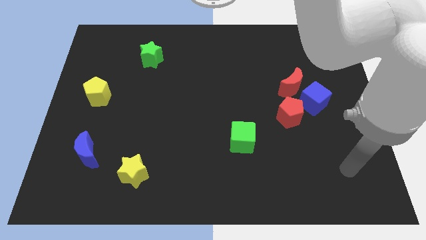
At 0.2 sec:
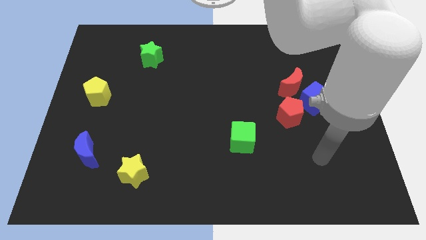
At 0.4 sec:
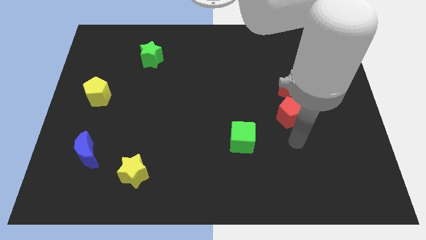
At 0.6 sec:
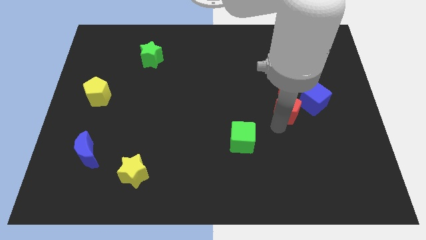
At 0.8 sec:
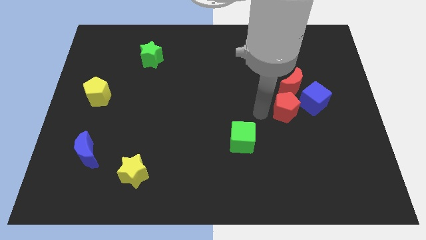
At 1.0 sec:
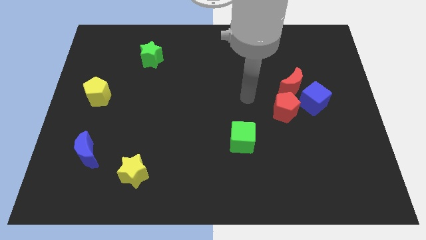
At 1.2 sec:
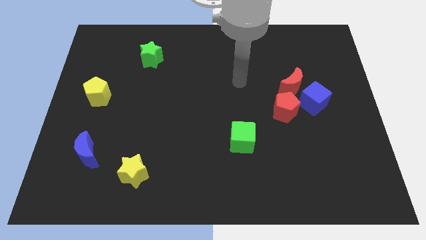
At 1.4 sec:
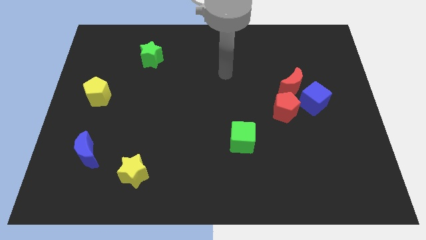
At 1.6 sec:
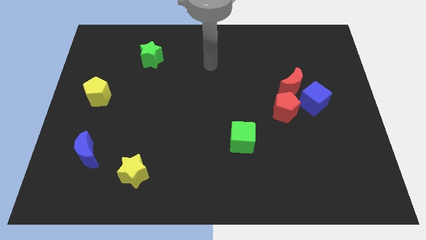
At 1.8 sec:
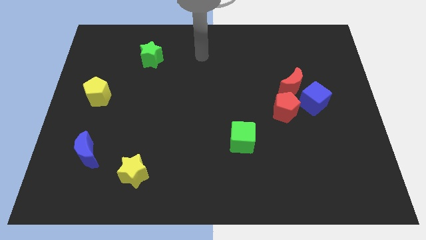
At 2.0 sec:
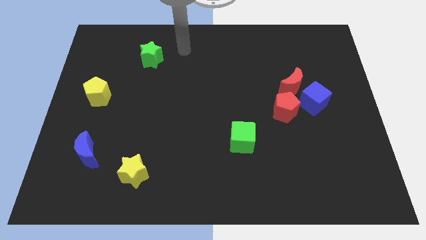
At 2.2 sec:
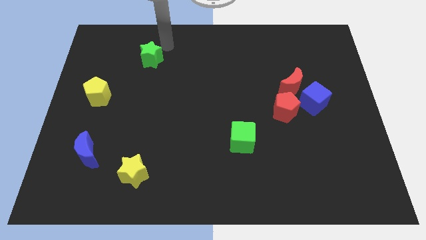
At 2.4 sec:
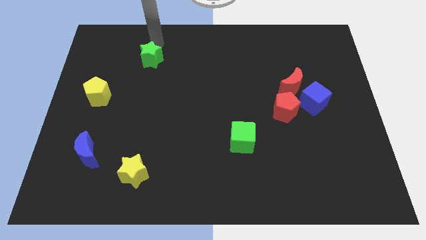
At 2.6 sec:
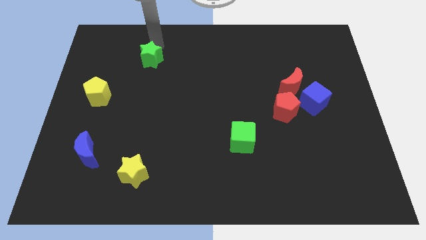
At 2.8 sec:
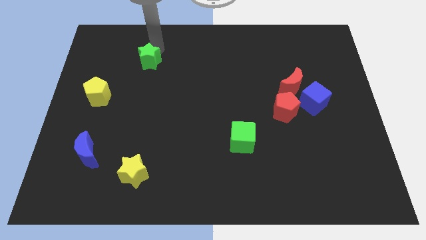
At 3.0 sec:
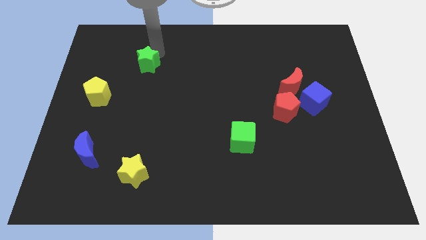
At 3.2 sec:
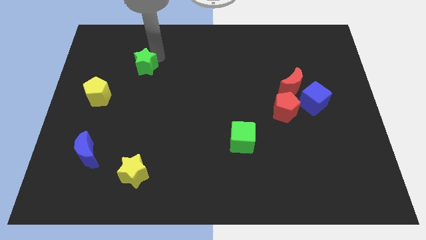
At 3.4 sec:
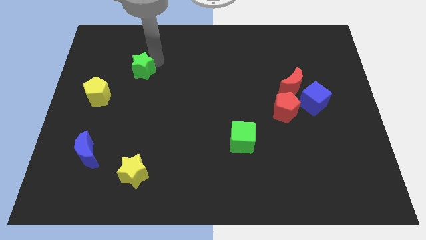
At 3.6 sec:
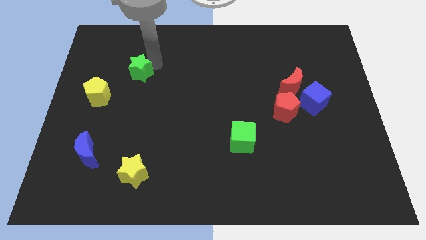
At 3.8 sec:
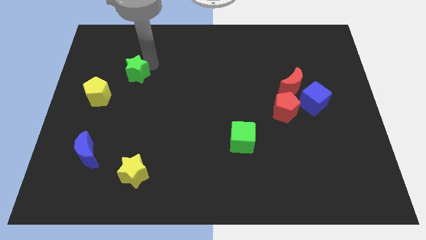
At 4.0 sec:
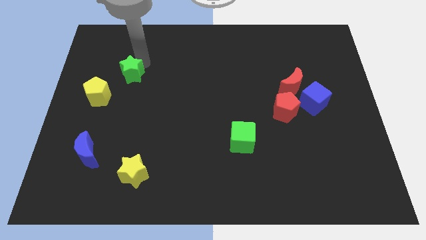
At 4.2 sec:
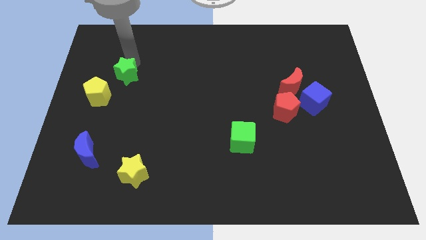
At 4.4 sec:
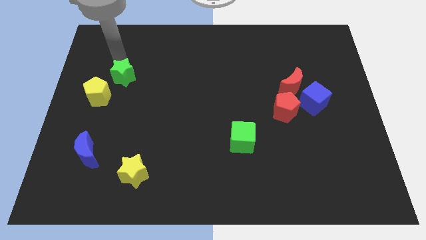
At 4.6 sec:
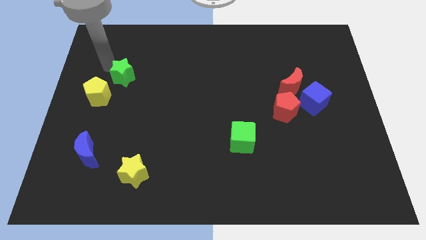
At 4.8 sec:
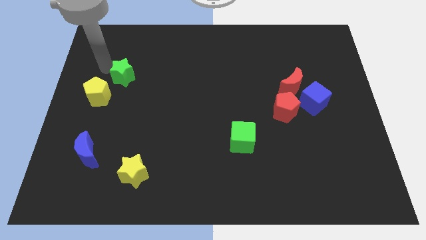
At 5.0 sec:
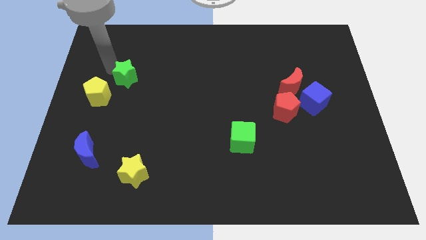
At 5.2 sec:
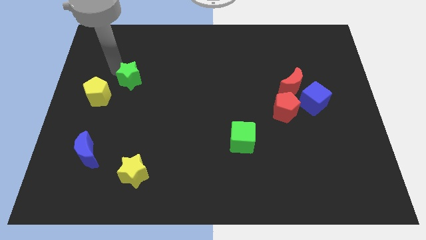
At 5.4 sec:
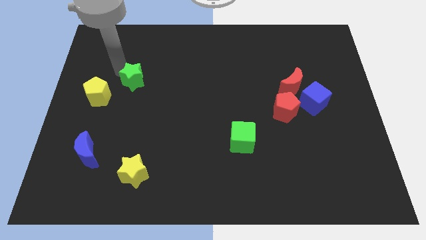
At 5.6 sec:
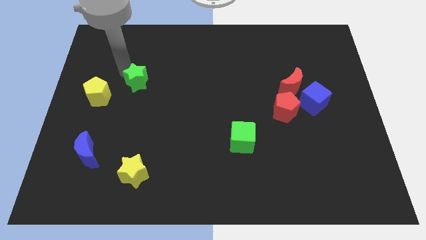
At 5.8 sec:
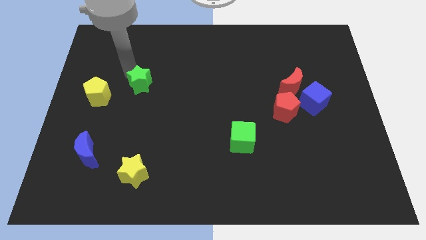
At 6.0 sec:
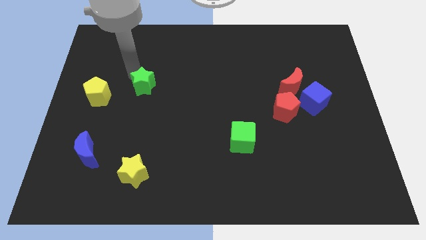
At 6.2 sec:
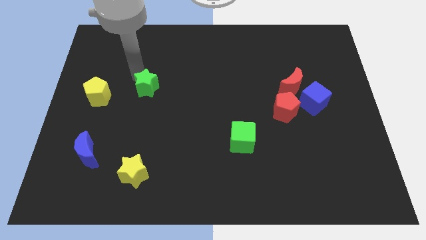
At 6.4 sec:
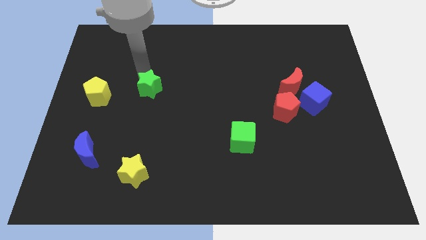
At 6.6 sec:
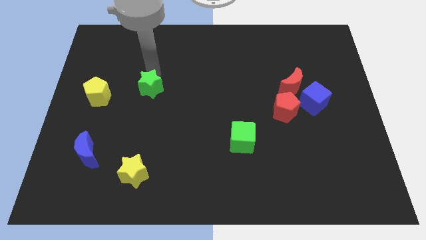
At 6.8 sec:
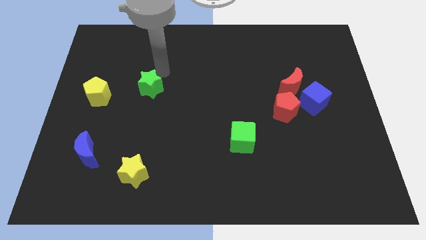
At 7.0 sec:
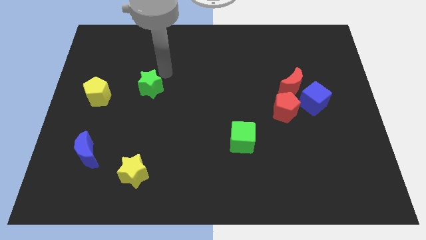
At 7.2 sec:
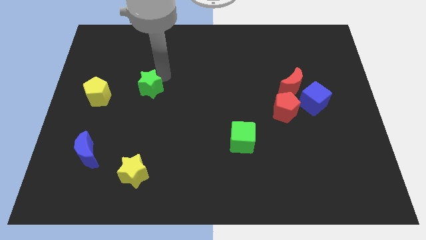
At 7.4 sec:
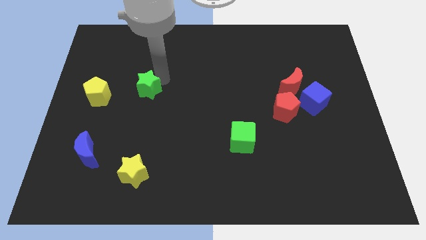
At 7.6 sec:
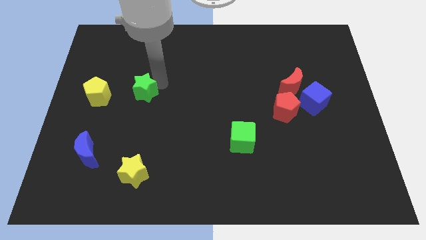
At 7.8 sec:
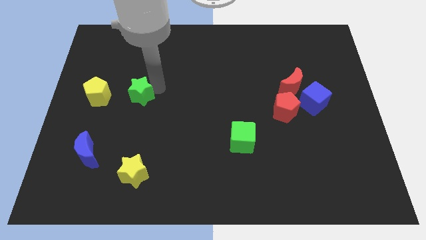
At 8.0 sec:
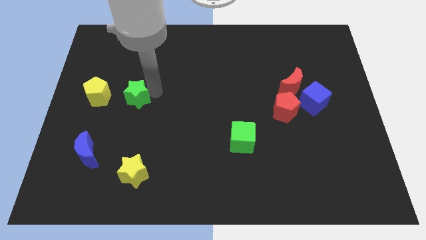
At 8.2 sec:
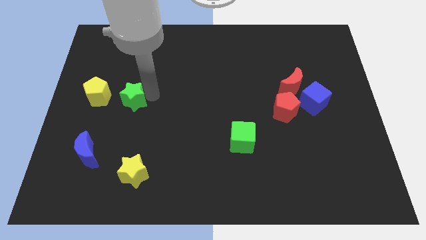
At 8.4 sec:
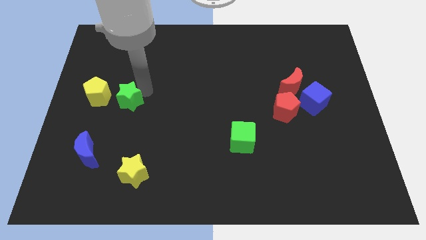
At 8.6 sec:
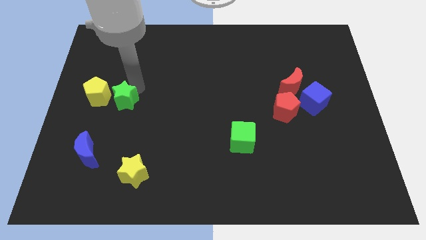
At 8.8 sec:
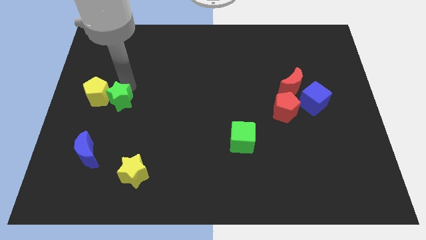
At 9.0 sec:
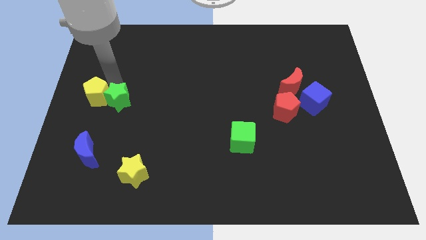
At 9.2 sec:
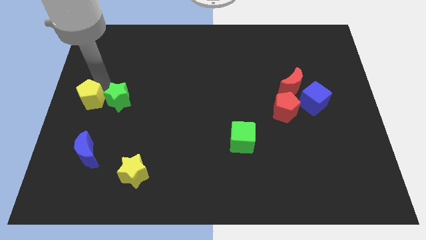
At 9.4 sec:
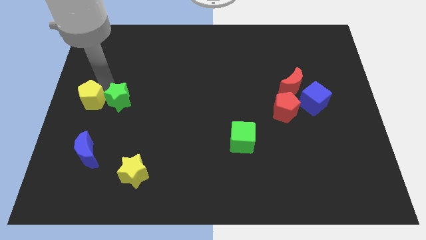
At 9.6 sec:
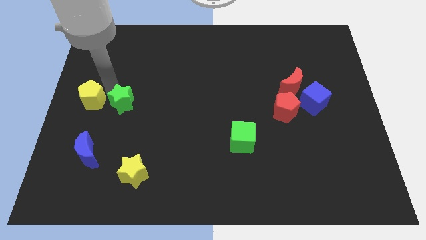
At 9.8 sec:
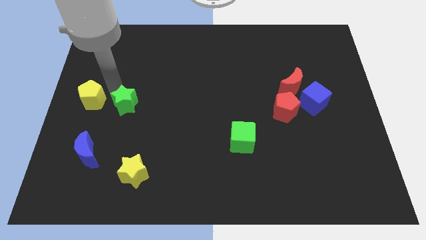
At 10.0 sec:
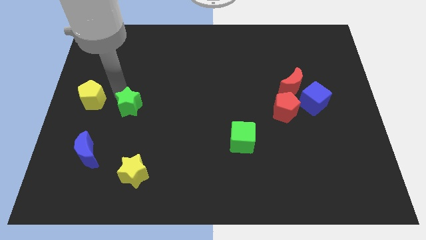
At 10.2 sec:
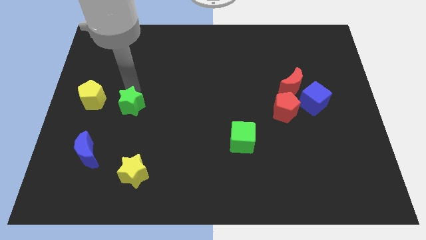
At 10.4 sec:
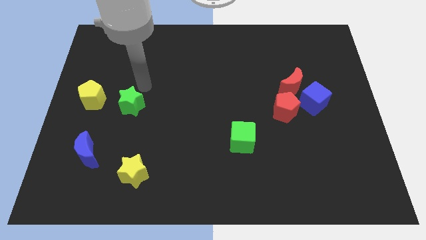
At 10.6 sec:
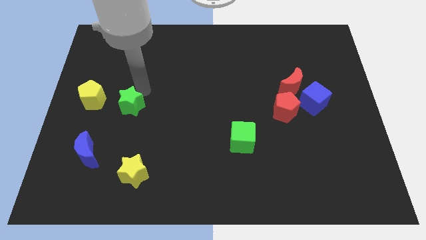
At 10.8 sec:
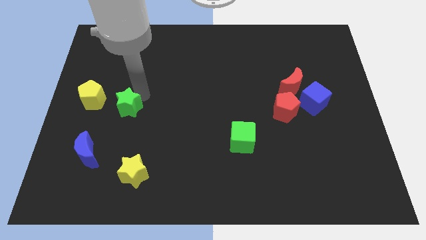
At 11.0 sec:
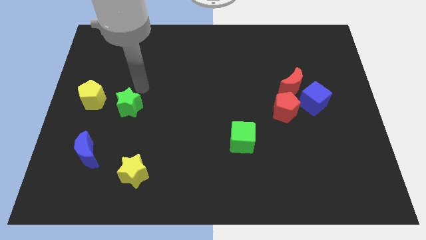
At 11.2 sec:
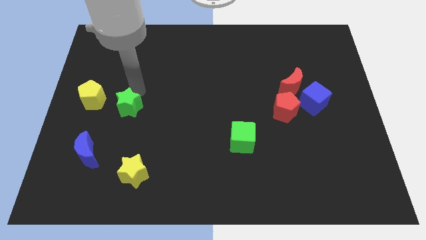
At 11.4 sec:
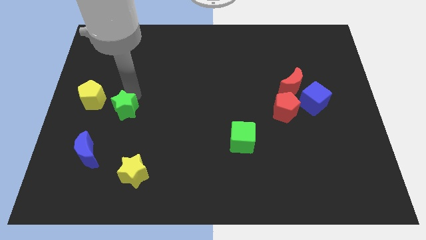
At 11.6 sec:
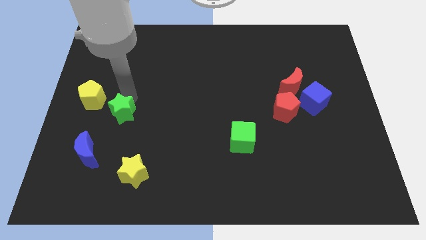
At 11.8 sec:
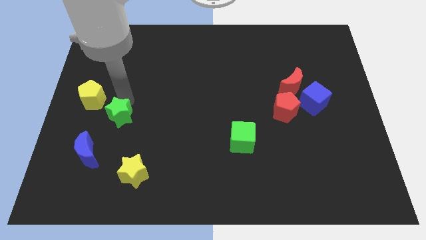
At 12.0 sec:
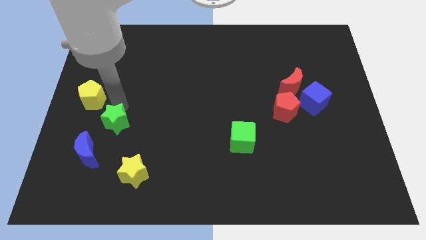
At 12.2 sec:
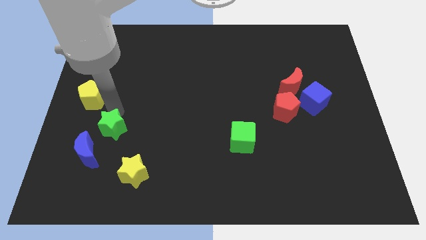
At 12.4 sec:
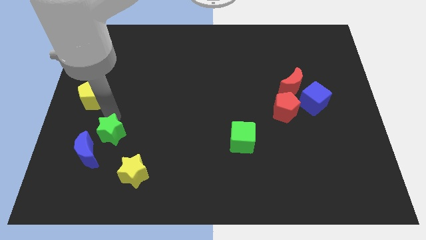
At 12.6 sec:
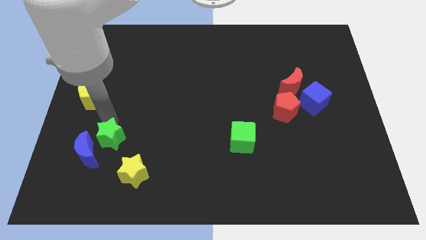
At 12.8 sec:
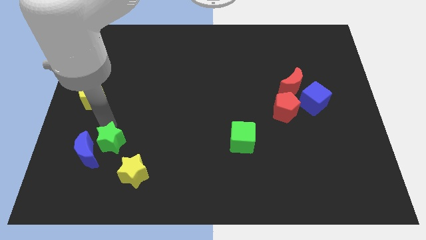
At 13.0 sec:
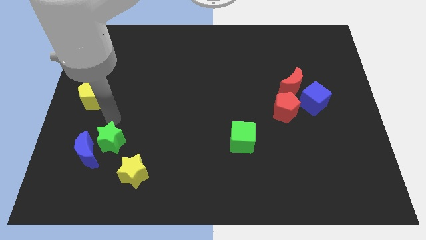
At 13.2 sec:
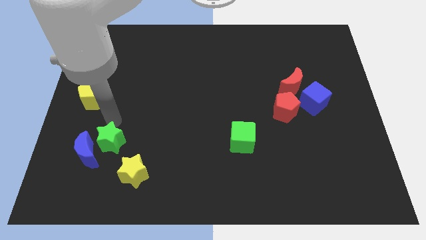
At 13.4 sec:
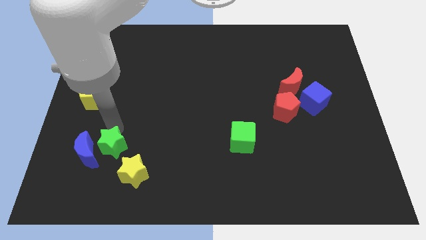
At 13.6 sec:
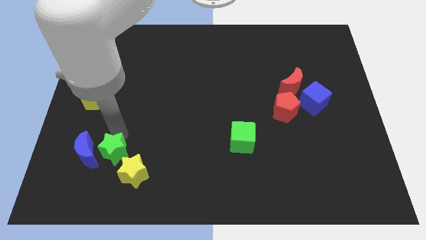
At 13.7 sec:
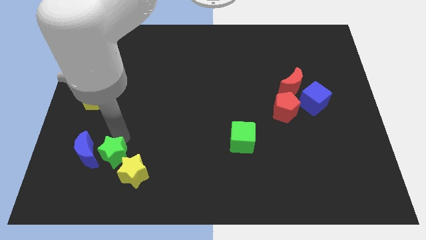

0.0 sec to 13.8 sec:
push the green star to the left of the yellow star
